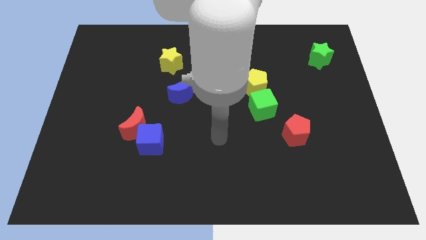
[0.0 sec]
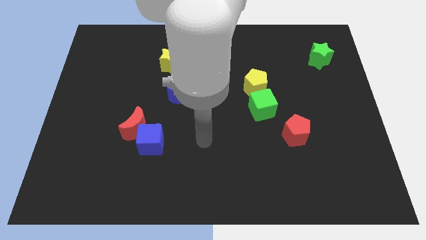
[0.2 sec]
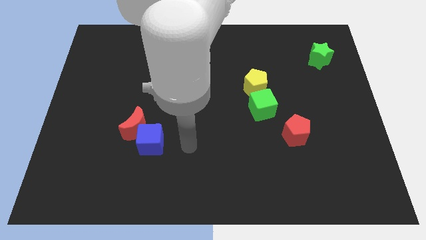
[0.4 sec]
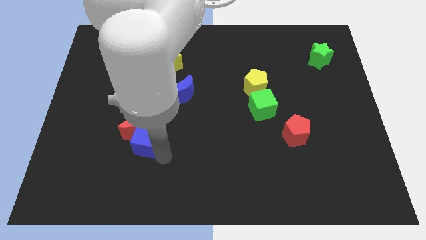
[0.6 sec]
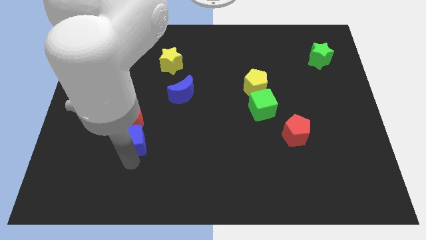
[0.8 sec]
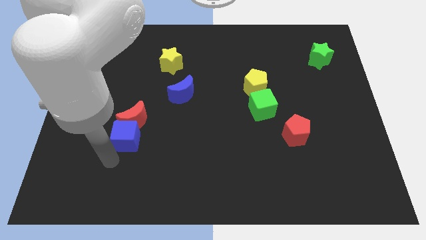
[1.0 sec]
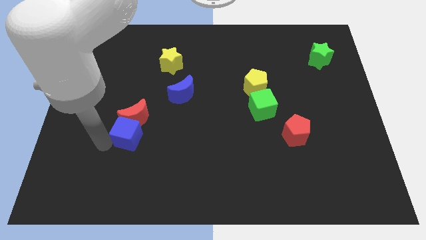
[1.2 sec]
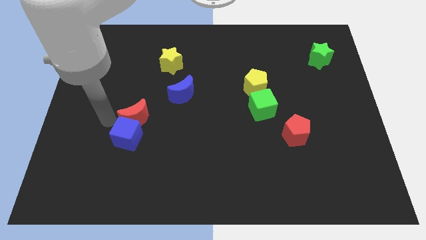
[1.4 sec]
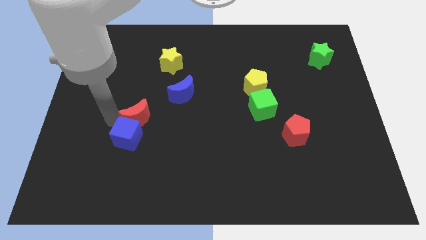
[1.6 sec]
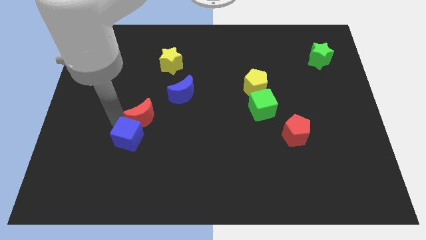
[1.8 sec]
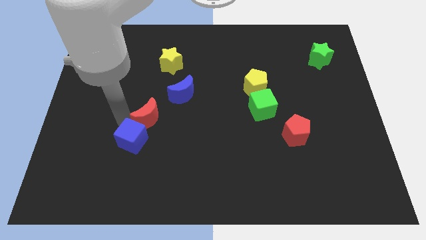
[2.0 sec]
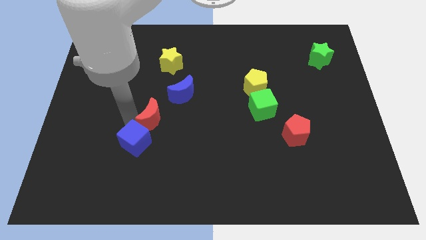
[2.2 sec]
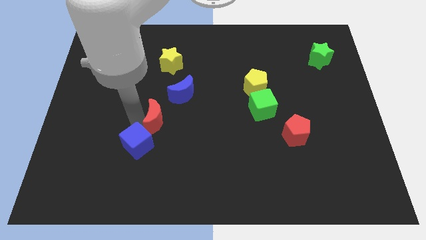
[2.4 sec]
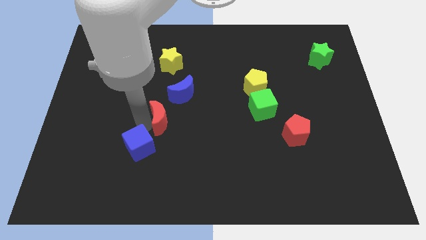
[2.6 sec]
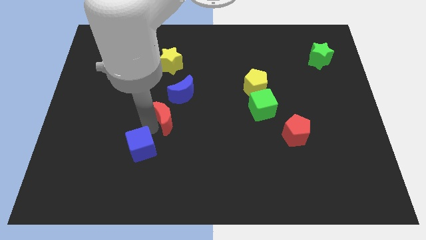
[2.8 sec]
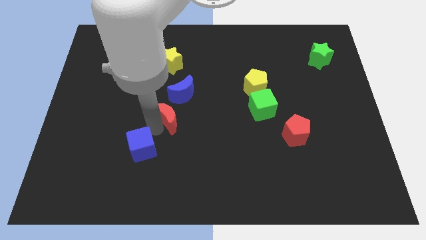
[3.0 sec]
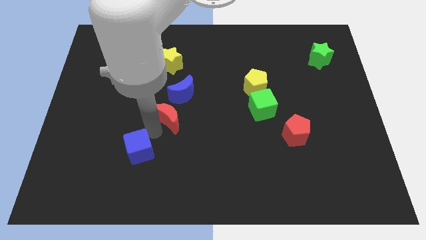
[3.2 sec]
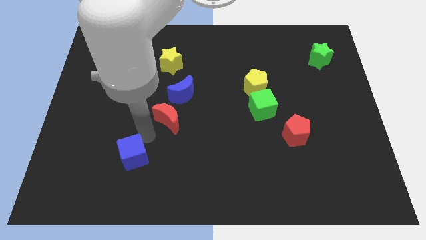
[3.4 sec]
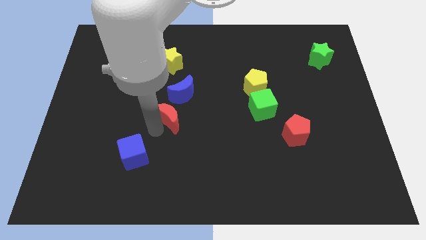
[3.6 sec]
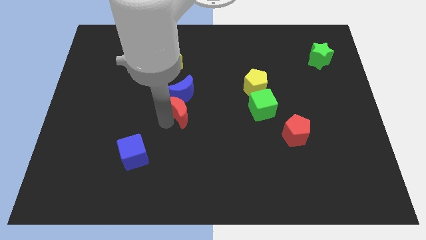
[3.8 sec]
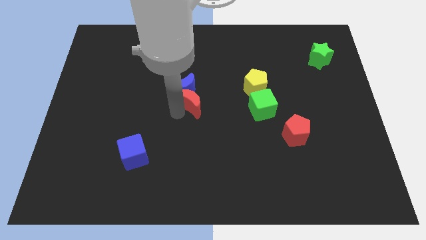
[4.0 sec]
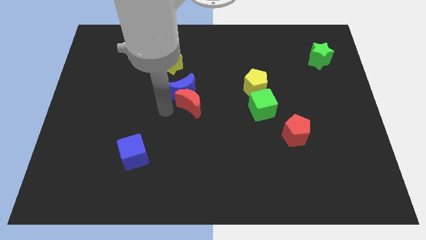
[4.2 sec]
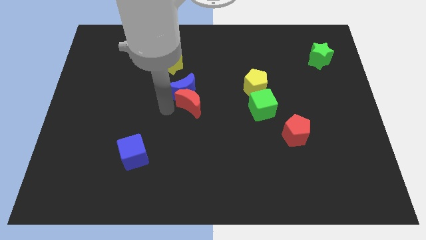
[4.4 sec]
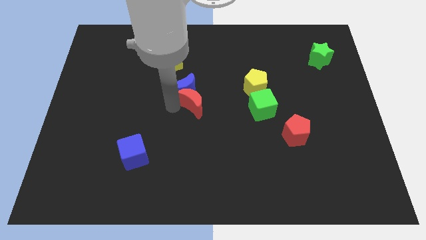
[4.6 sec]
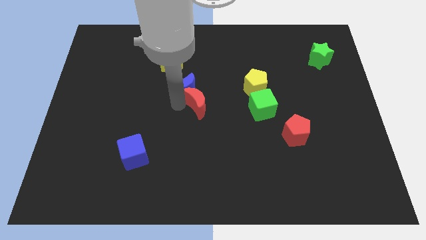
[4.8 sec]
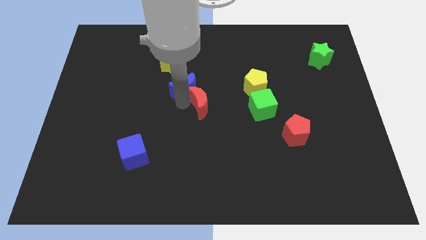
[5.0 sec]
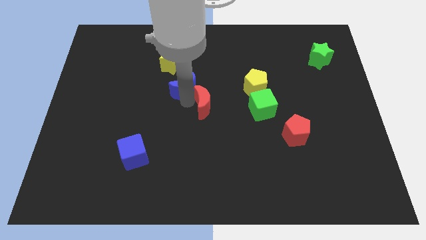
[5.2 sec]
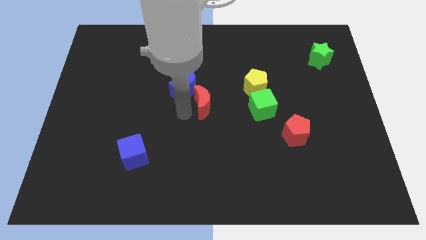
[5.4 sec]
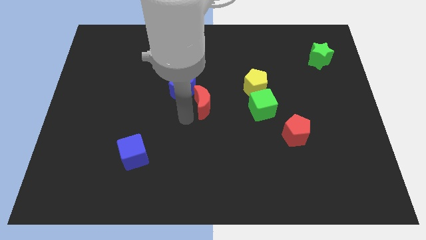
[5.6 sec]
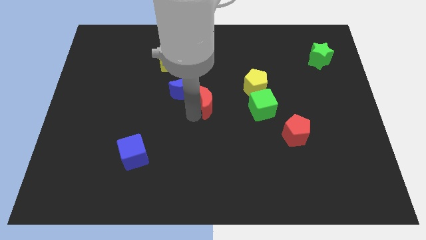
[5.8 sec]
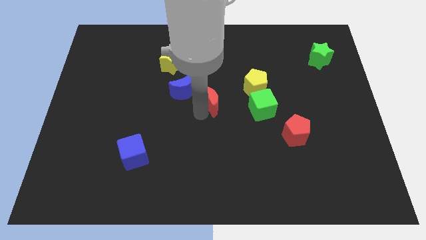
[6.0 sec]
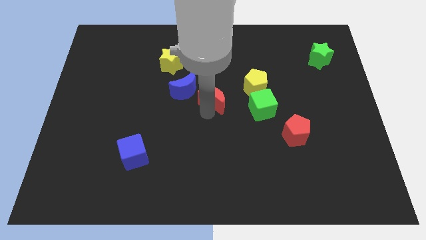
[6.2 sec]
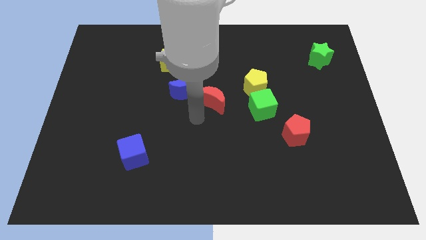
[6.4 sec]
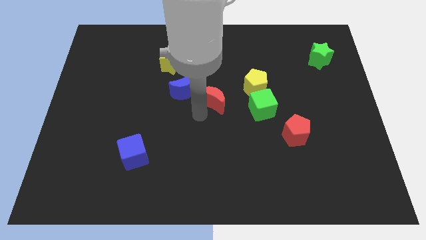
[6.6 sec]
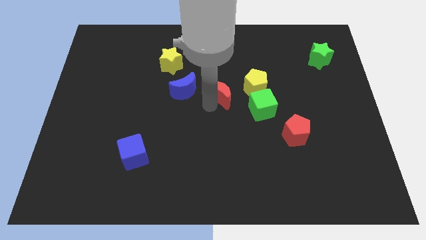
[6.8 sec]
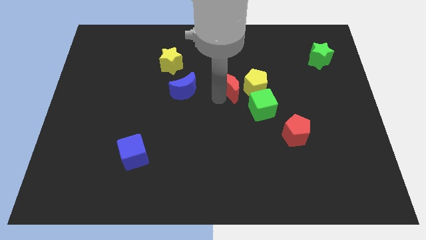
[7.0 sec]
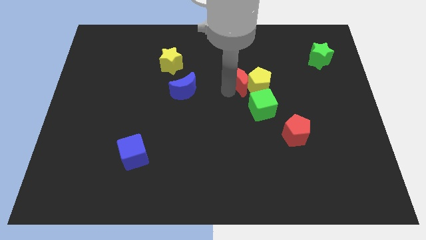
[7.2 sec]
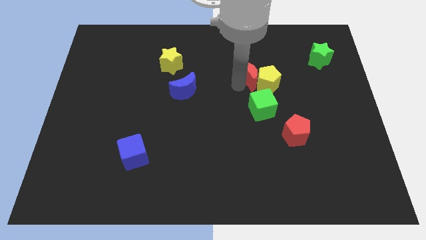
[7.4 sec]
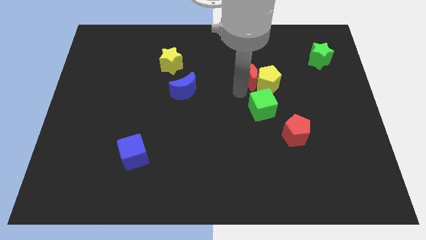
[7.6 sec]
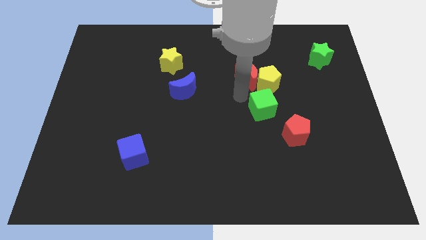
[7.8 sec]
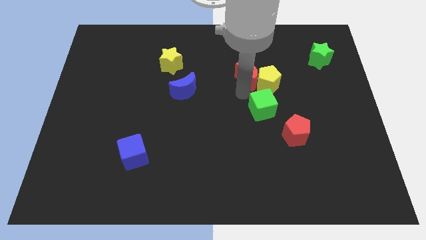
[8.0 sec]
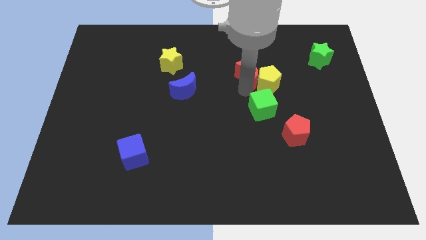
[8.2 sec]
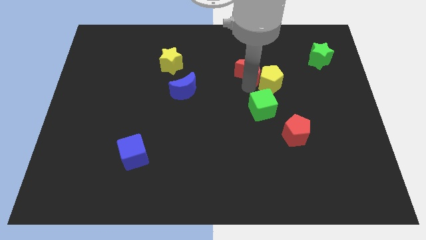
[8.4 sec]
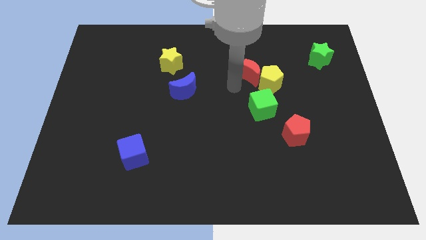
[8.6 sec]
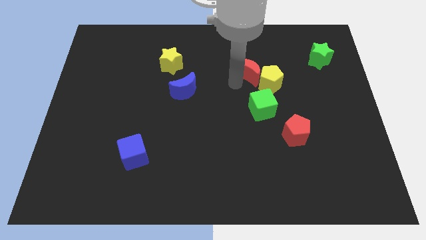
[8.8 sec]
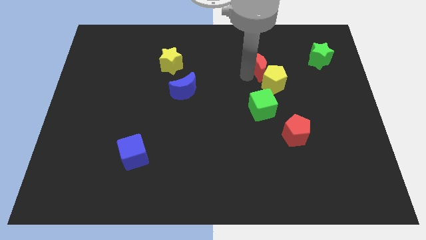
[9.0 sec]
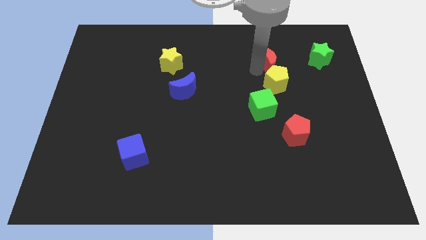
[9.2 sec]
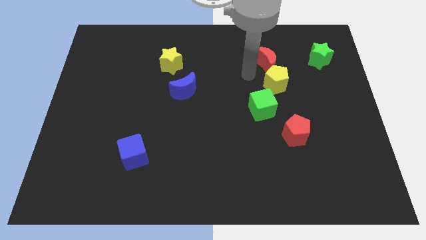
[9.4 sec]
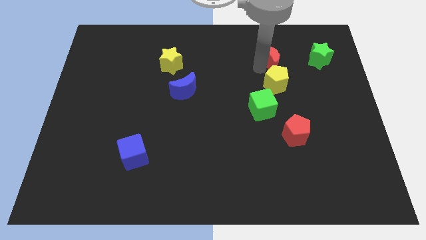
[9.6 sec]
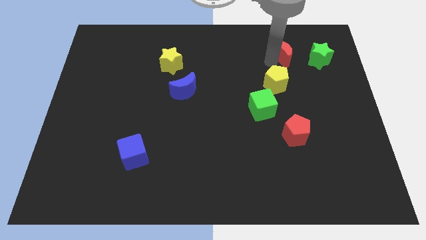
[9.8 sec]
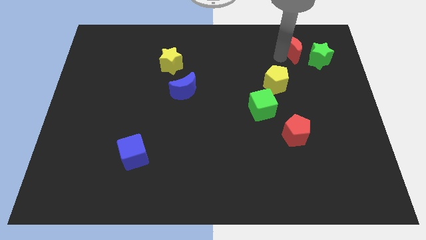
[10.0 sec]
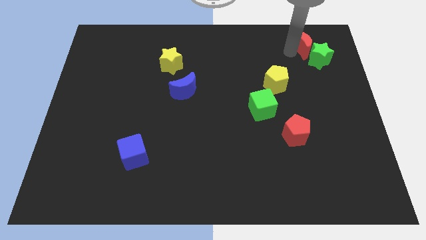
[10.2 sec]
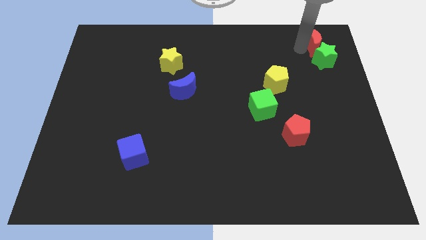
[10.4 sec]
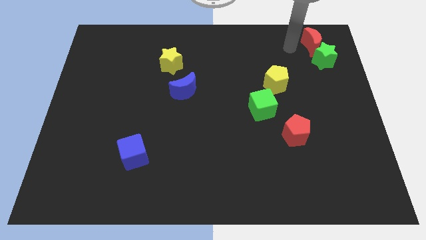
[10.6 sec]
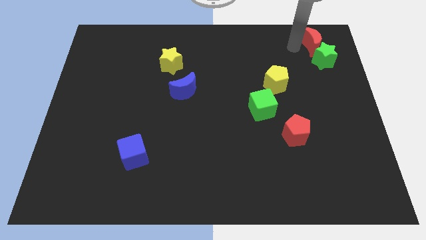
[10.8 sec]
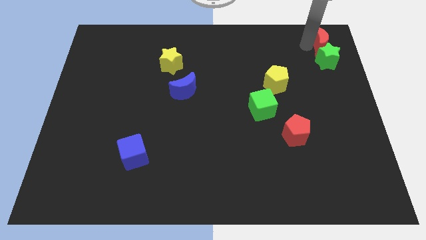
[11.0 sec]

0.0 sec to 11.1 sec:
put the red moon to the upper right corner
